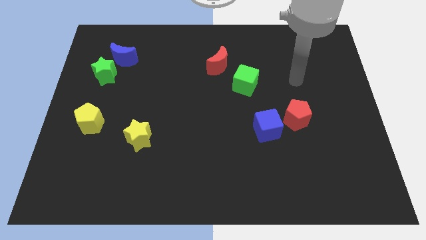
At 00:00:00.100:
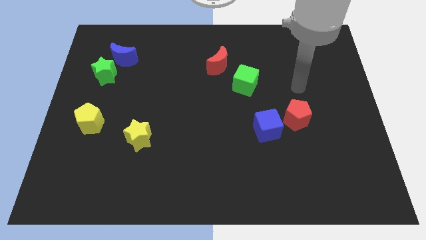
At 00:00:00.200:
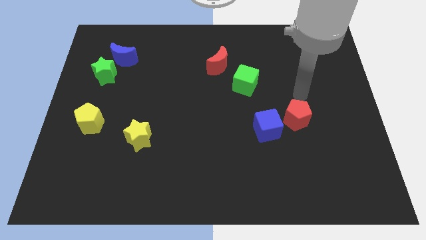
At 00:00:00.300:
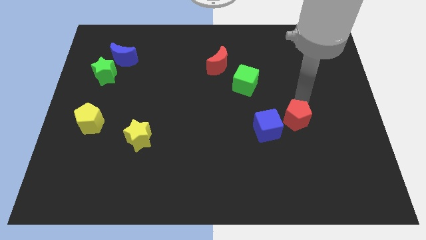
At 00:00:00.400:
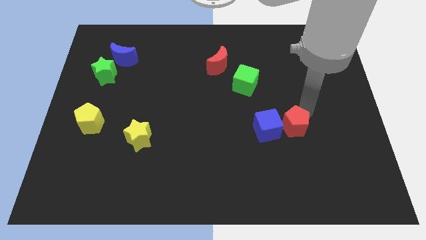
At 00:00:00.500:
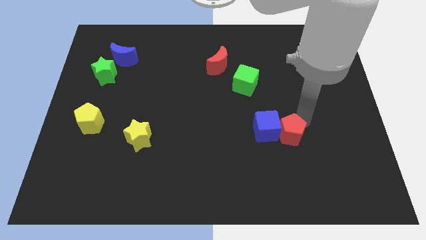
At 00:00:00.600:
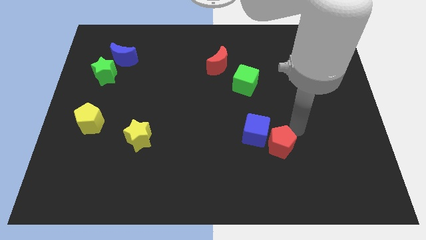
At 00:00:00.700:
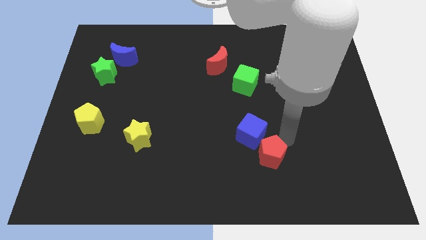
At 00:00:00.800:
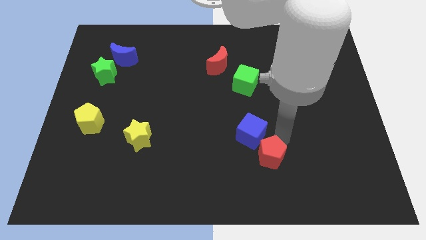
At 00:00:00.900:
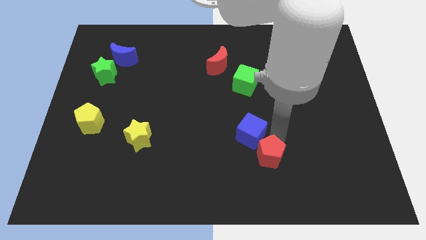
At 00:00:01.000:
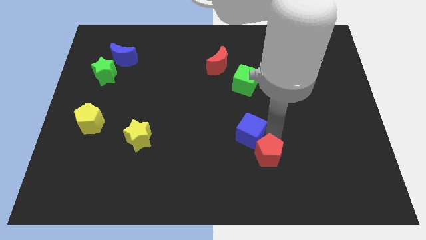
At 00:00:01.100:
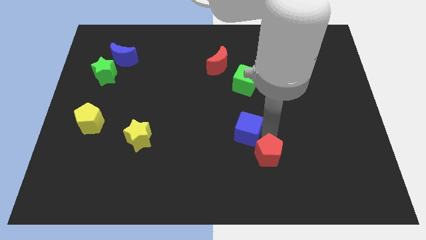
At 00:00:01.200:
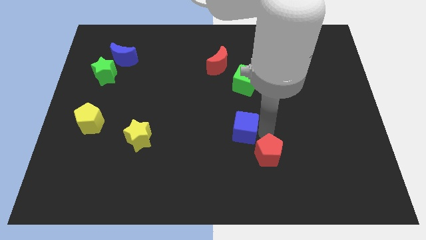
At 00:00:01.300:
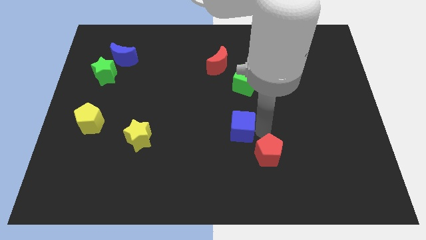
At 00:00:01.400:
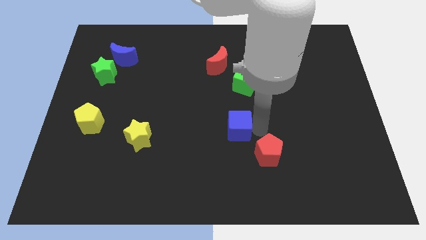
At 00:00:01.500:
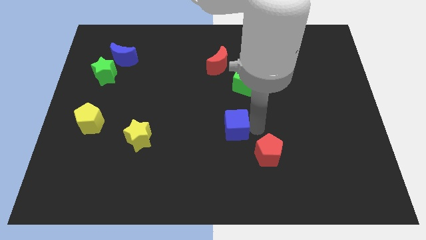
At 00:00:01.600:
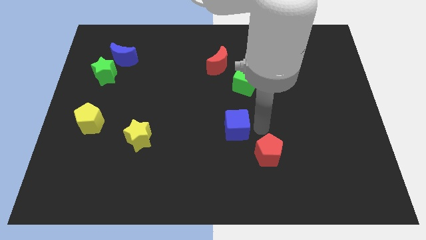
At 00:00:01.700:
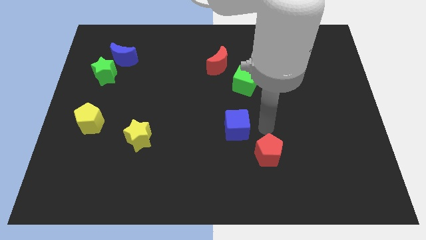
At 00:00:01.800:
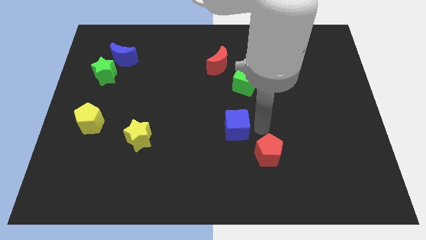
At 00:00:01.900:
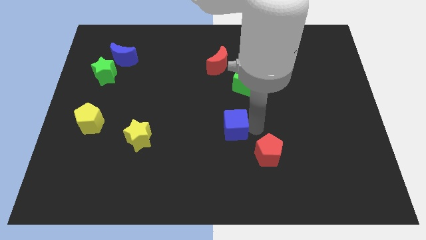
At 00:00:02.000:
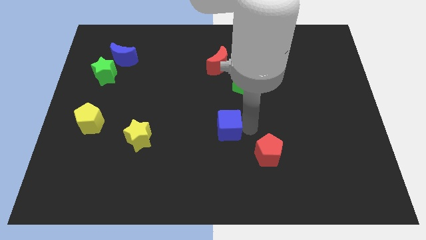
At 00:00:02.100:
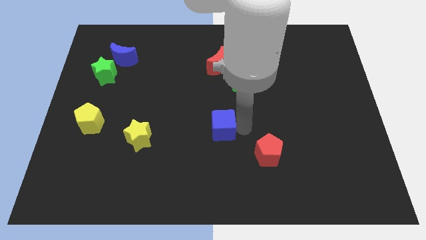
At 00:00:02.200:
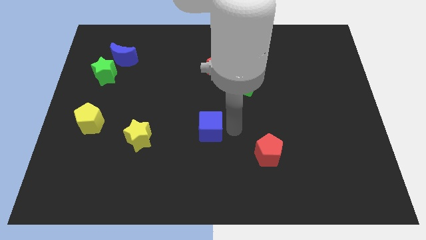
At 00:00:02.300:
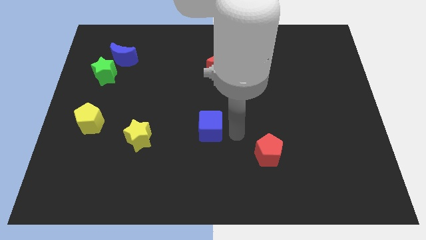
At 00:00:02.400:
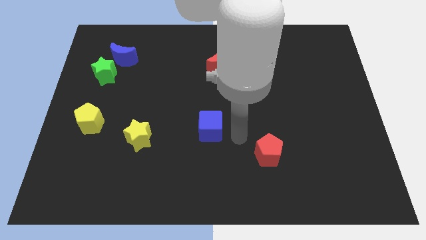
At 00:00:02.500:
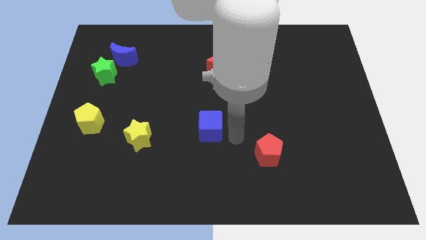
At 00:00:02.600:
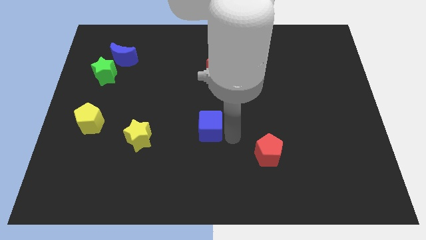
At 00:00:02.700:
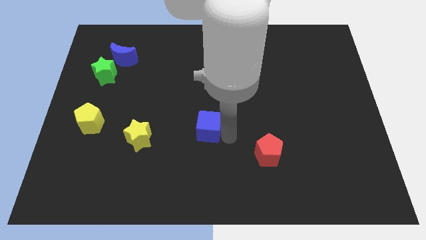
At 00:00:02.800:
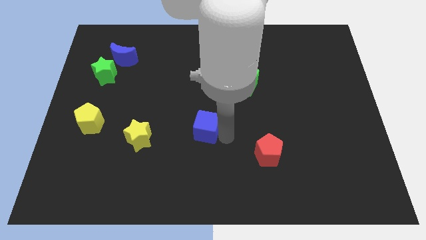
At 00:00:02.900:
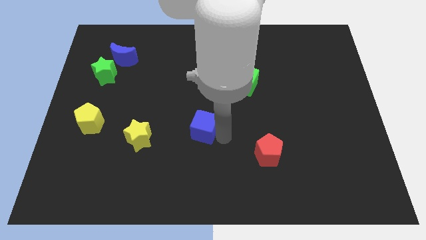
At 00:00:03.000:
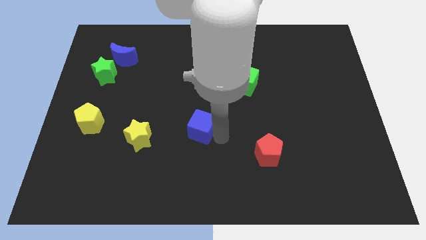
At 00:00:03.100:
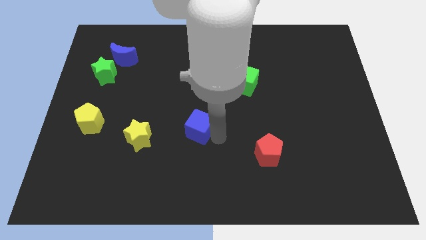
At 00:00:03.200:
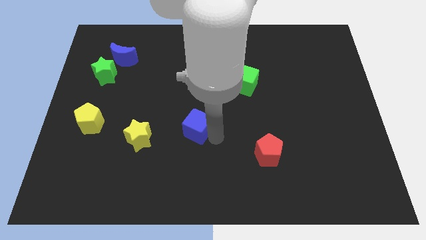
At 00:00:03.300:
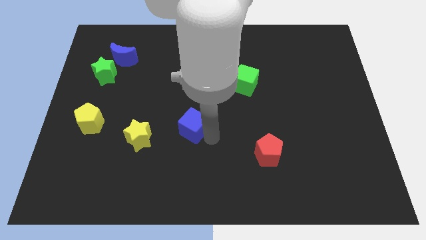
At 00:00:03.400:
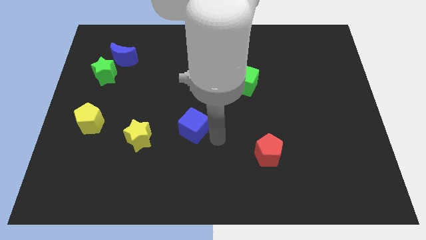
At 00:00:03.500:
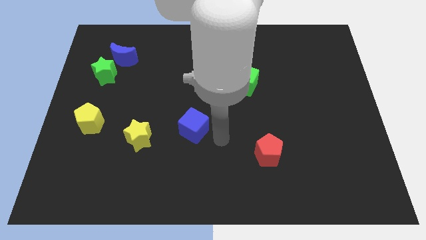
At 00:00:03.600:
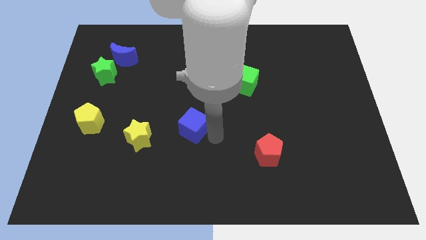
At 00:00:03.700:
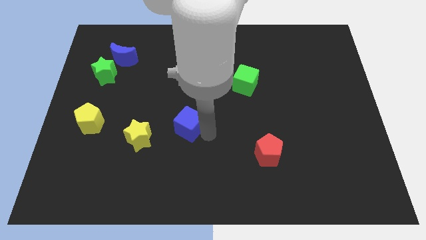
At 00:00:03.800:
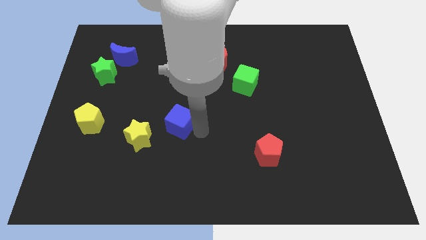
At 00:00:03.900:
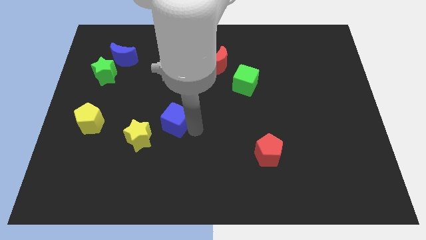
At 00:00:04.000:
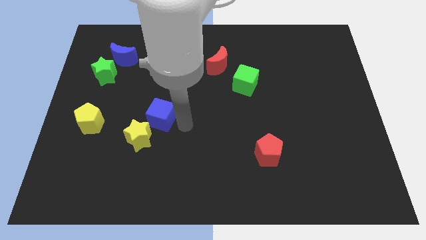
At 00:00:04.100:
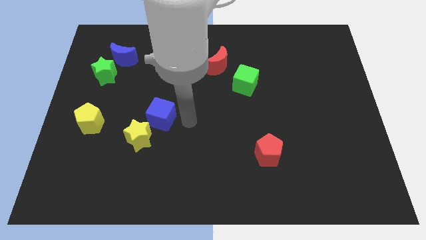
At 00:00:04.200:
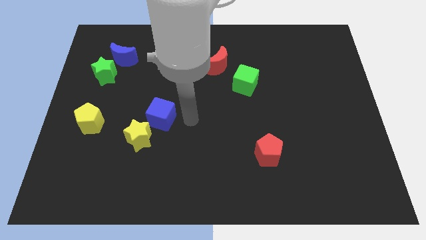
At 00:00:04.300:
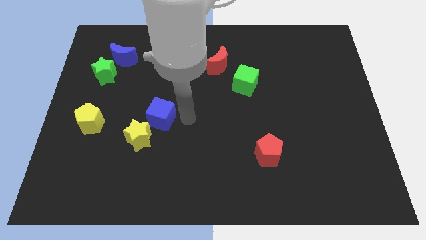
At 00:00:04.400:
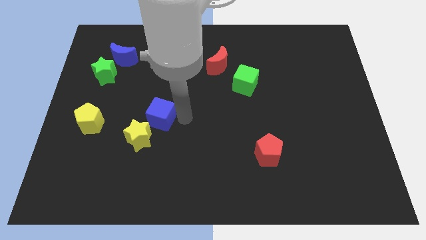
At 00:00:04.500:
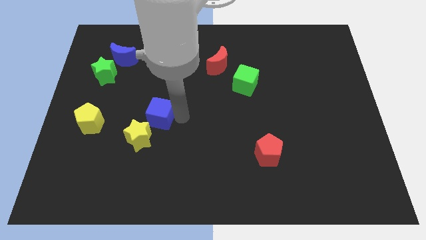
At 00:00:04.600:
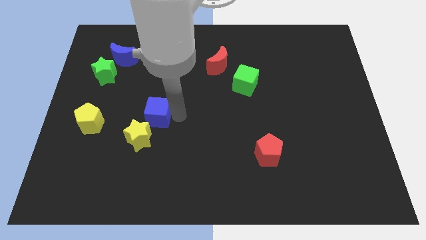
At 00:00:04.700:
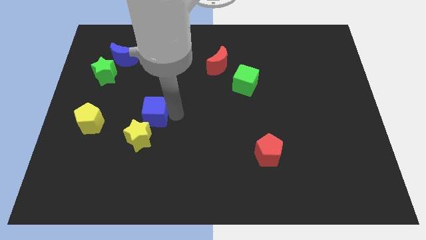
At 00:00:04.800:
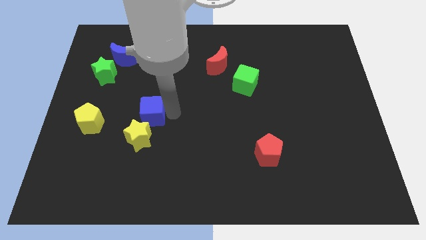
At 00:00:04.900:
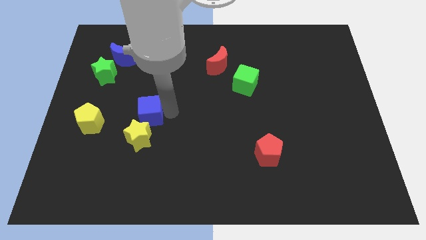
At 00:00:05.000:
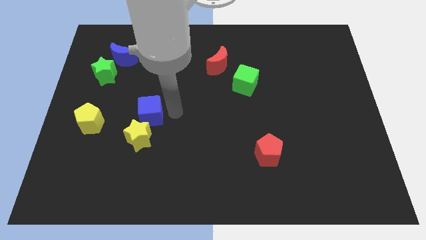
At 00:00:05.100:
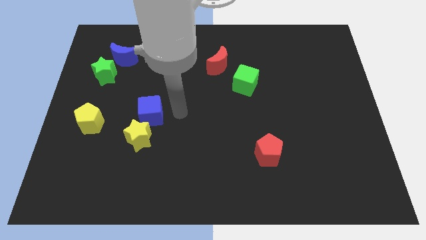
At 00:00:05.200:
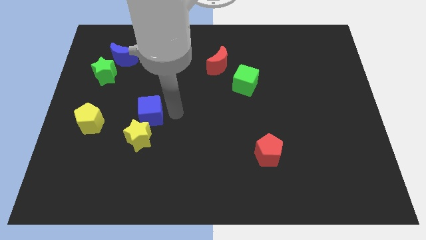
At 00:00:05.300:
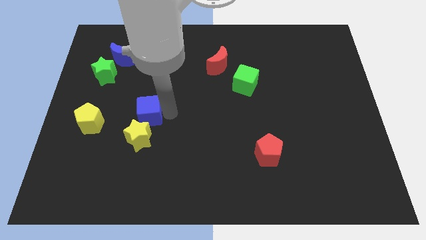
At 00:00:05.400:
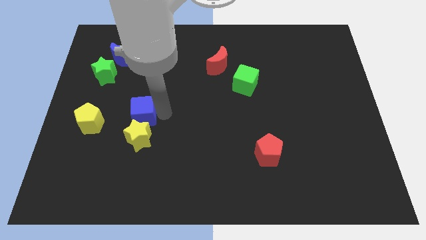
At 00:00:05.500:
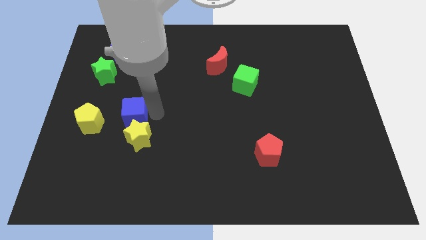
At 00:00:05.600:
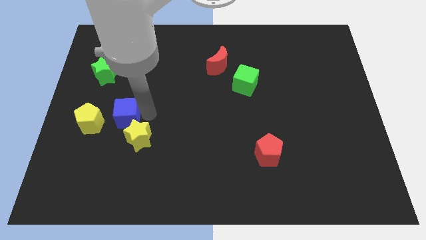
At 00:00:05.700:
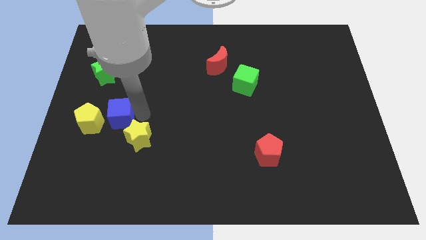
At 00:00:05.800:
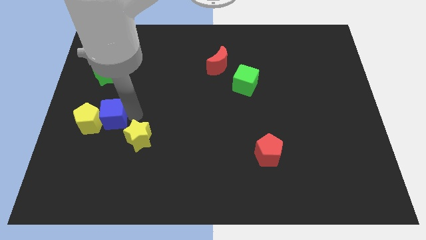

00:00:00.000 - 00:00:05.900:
slide the blue cube towards the yellow pentagon

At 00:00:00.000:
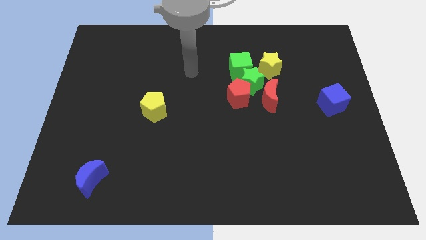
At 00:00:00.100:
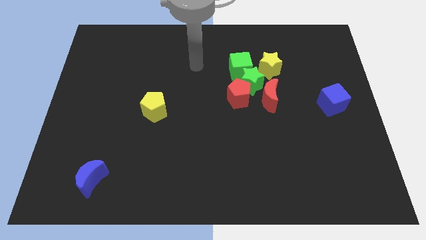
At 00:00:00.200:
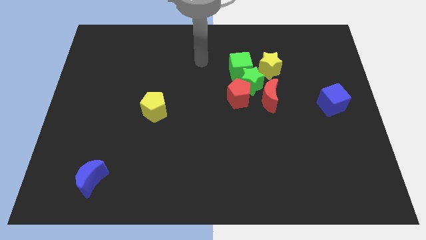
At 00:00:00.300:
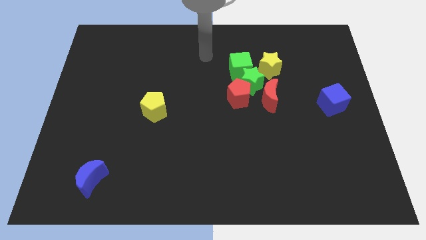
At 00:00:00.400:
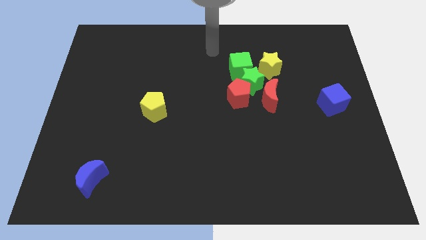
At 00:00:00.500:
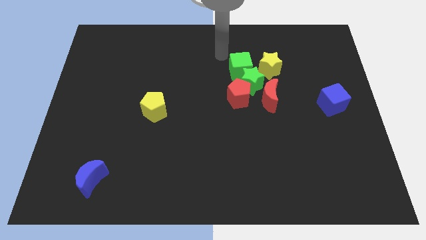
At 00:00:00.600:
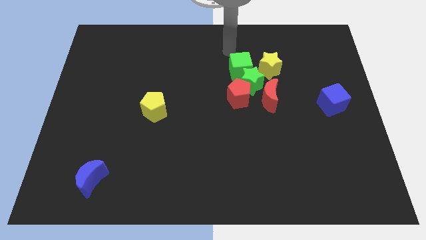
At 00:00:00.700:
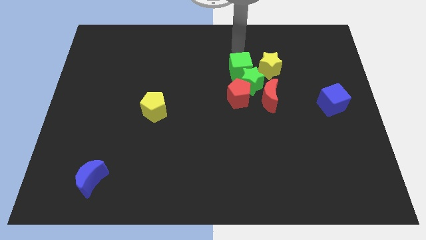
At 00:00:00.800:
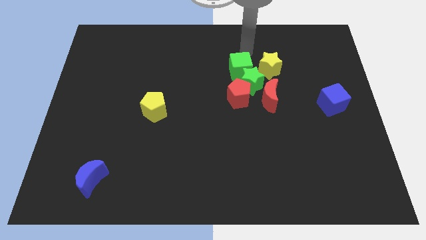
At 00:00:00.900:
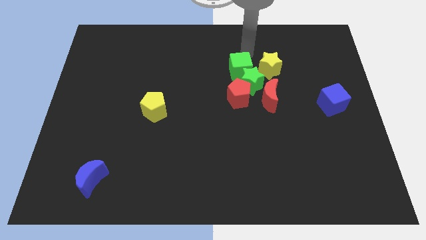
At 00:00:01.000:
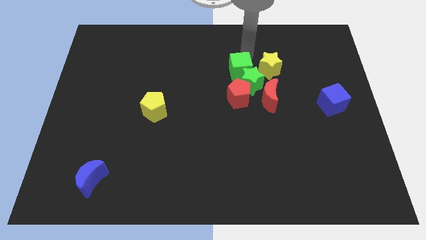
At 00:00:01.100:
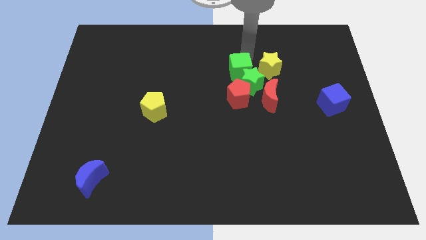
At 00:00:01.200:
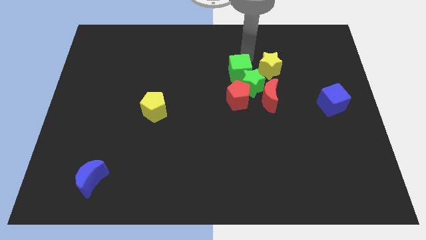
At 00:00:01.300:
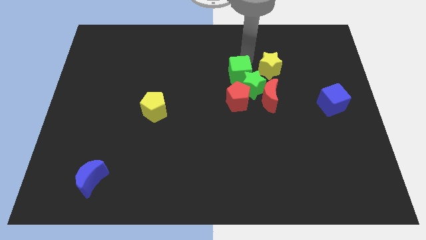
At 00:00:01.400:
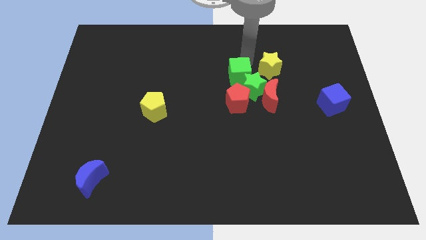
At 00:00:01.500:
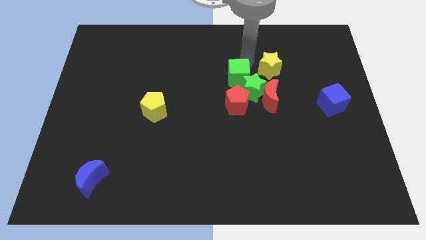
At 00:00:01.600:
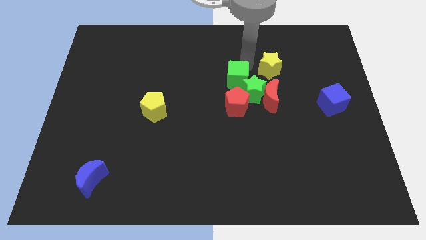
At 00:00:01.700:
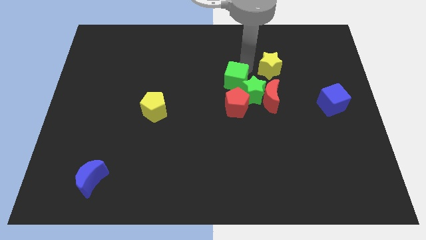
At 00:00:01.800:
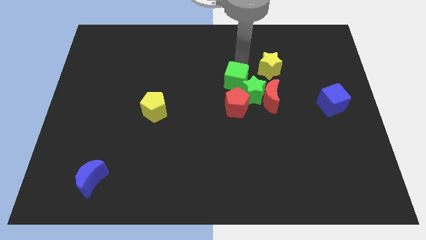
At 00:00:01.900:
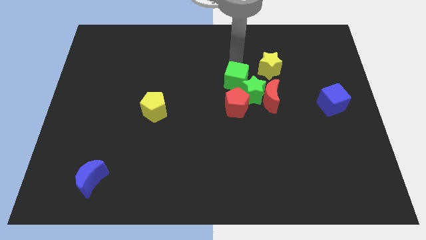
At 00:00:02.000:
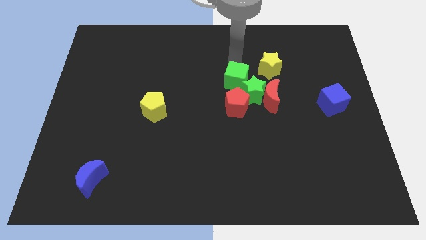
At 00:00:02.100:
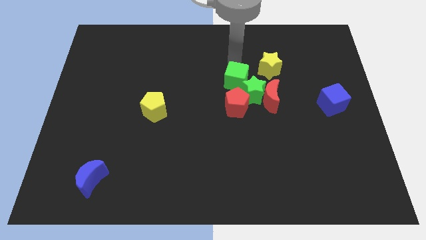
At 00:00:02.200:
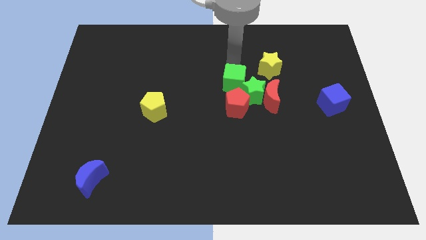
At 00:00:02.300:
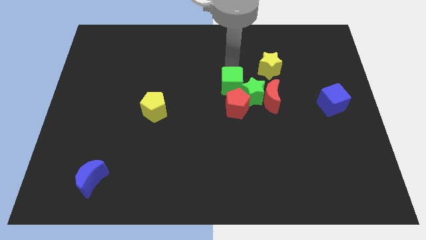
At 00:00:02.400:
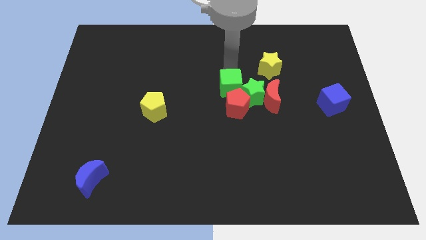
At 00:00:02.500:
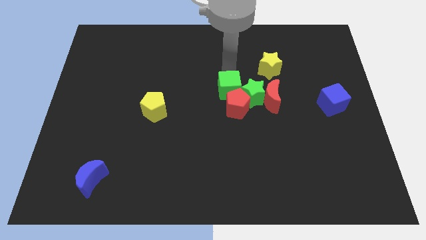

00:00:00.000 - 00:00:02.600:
slide the green cube to the red pentagon
